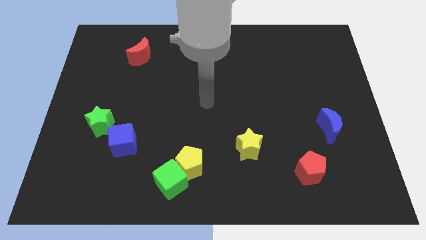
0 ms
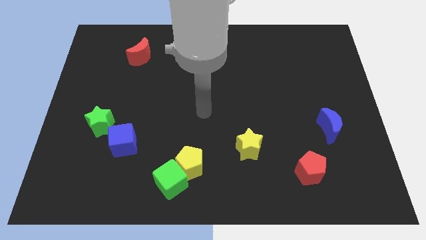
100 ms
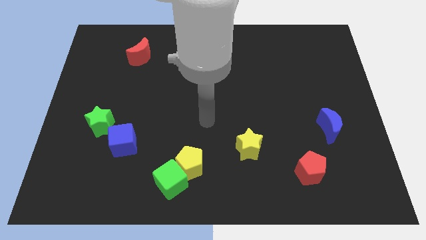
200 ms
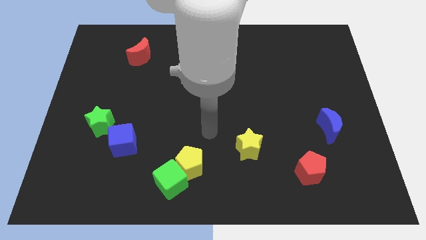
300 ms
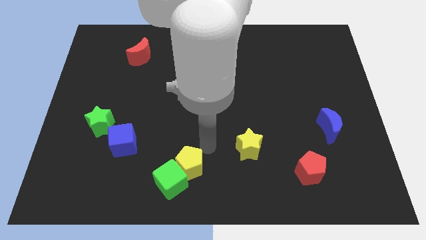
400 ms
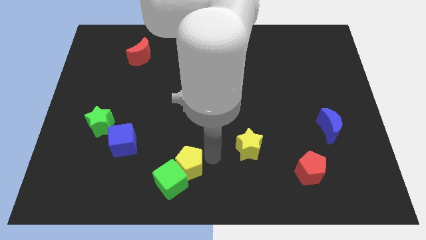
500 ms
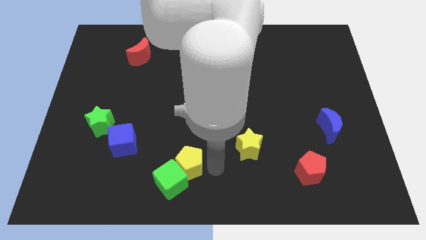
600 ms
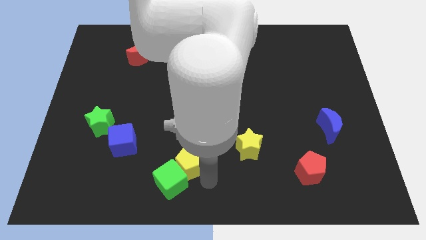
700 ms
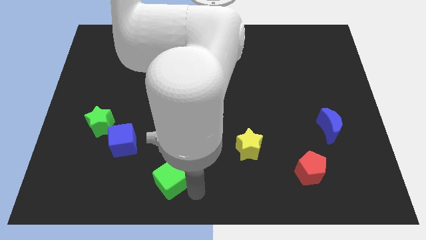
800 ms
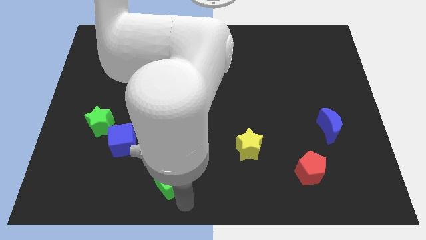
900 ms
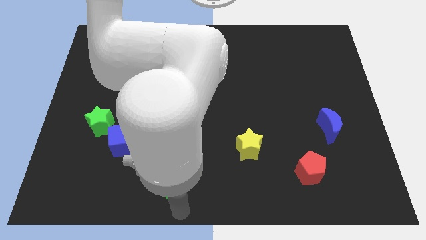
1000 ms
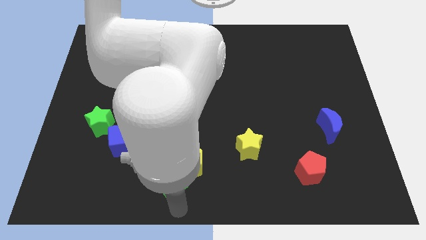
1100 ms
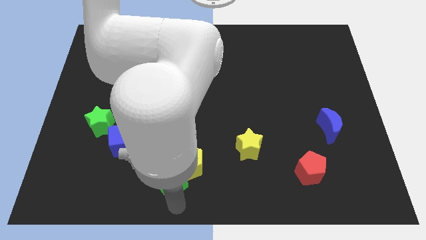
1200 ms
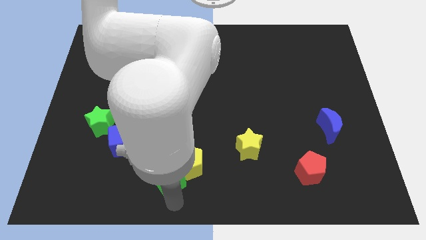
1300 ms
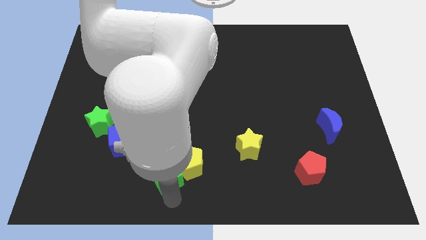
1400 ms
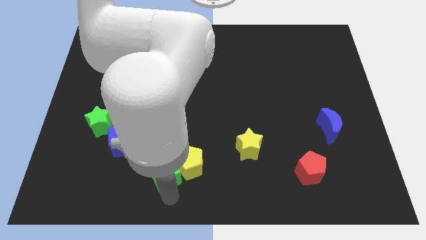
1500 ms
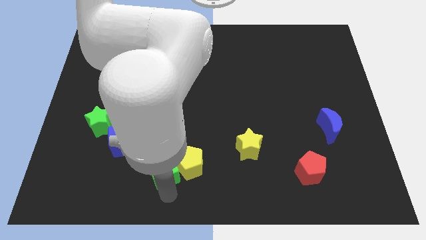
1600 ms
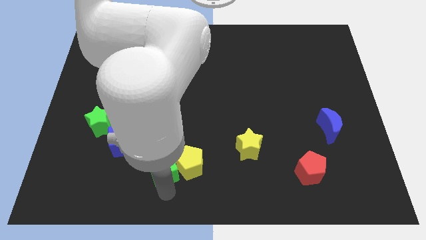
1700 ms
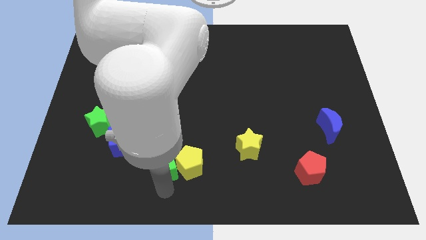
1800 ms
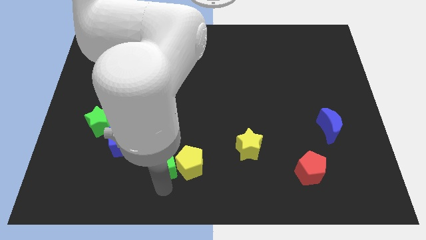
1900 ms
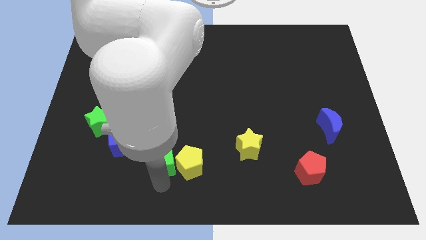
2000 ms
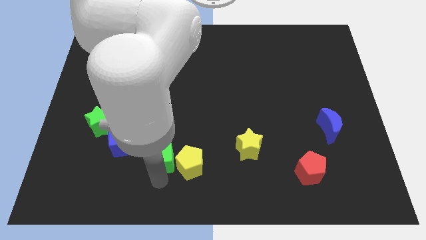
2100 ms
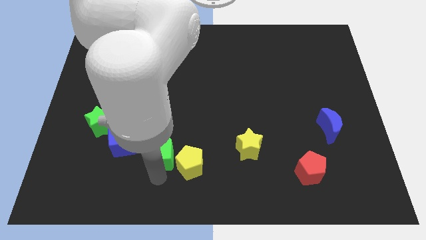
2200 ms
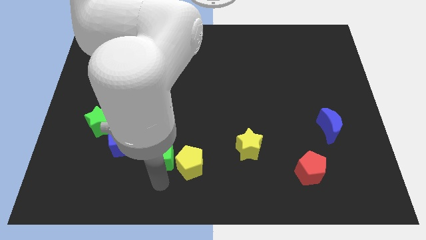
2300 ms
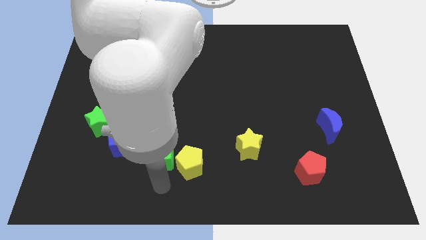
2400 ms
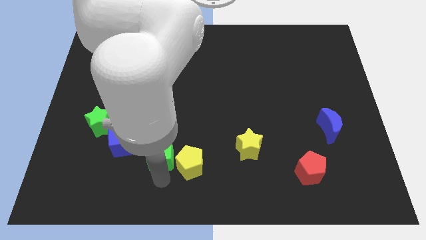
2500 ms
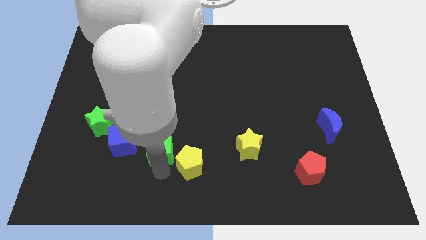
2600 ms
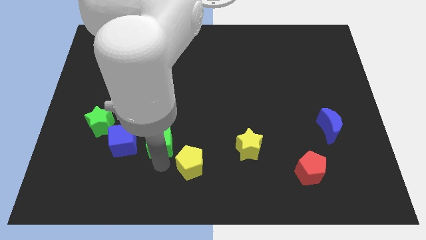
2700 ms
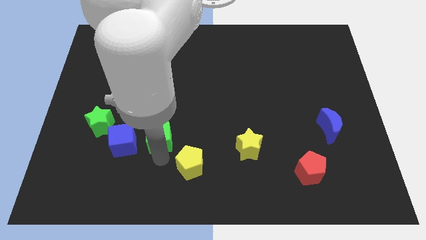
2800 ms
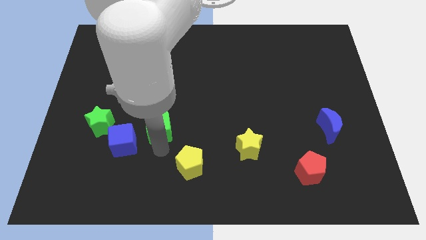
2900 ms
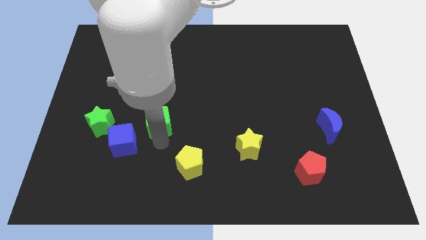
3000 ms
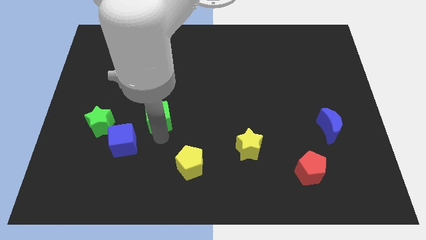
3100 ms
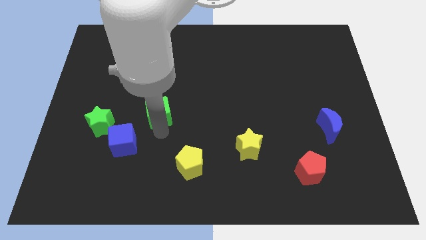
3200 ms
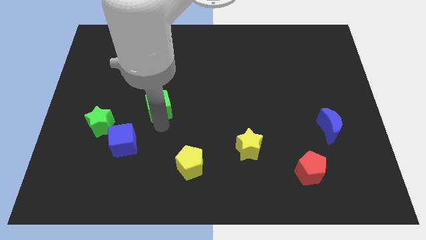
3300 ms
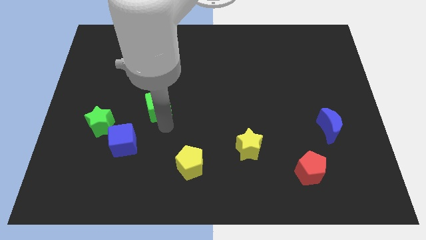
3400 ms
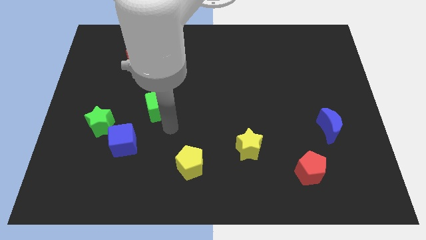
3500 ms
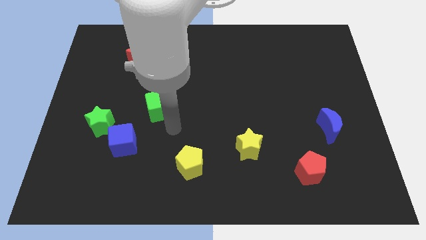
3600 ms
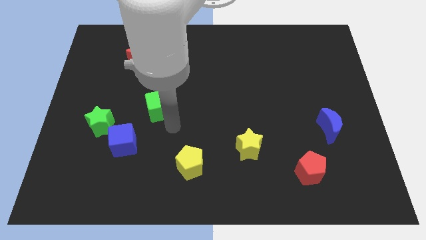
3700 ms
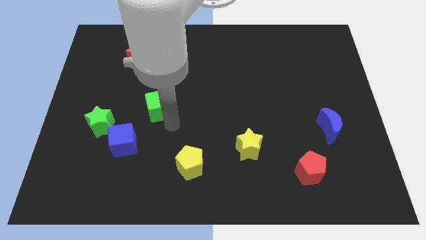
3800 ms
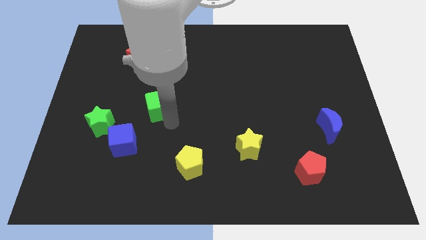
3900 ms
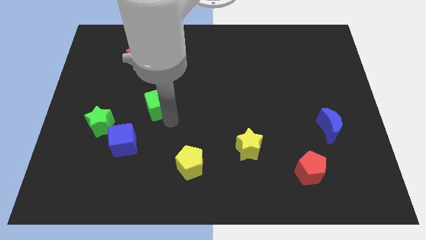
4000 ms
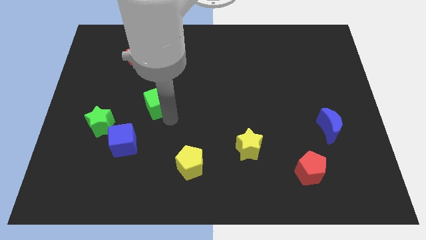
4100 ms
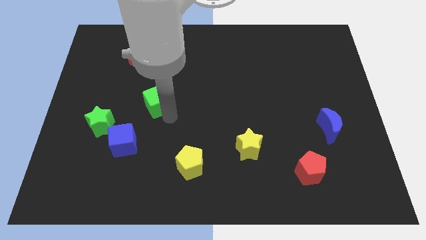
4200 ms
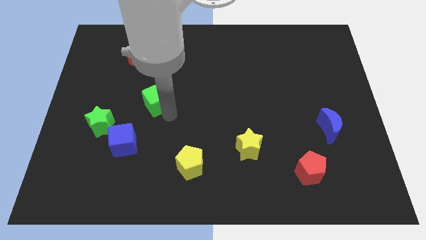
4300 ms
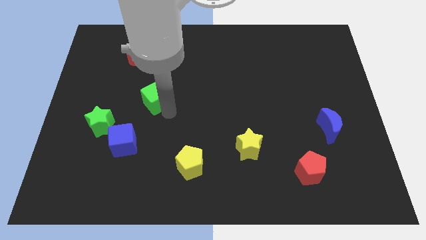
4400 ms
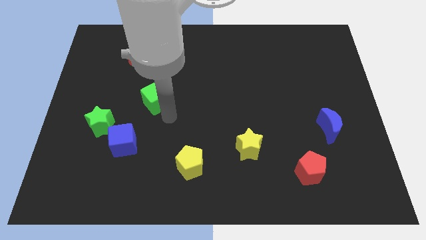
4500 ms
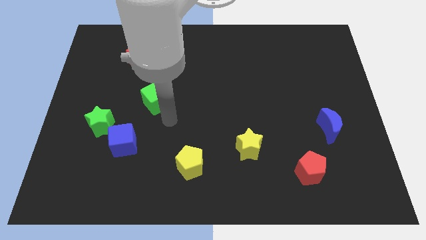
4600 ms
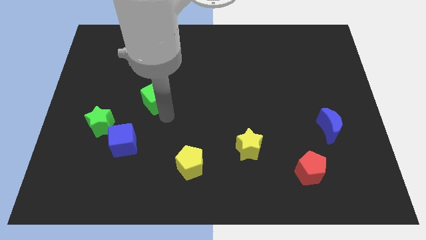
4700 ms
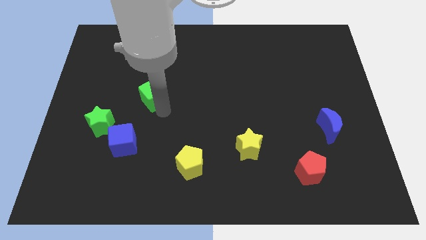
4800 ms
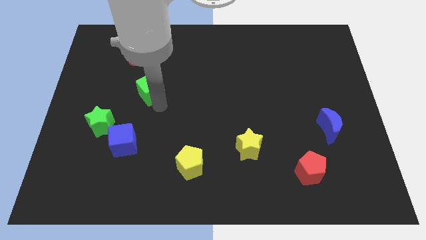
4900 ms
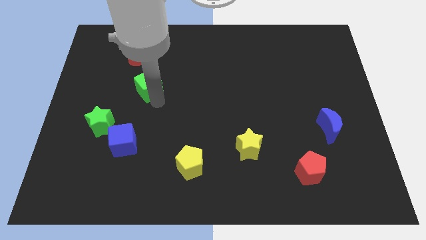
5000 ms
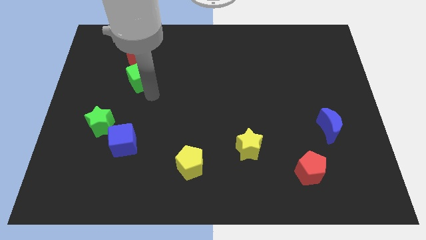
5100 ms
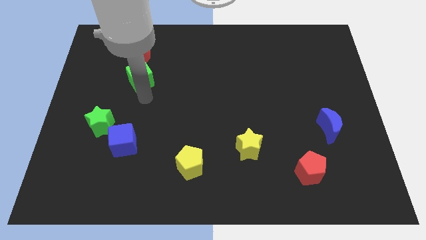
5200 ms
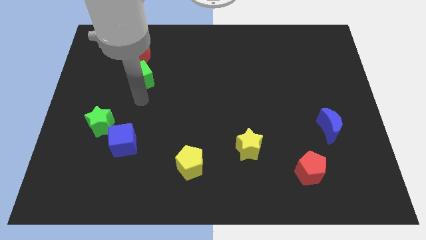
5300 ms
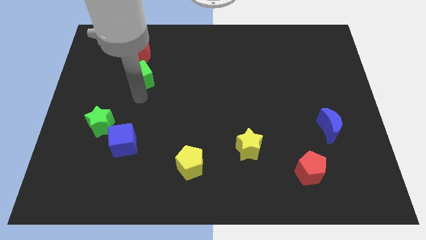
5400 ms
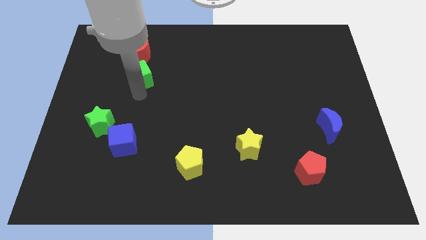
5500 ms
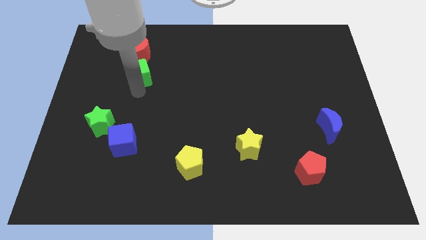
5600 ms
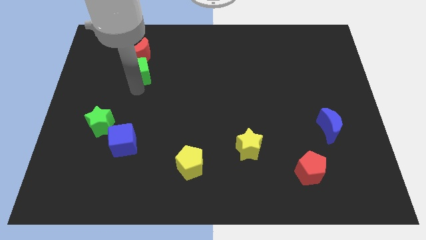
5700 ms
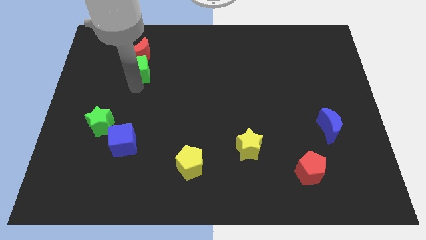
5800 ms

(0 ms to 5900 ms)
slide the green cube next to the red moon

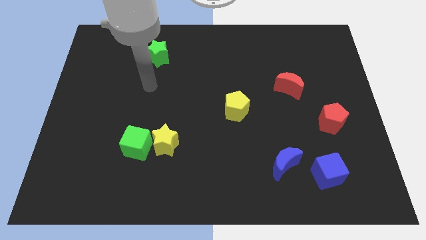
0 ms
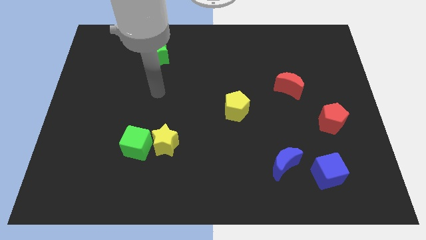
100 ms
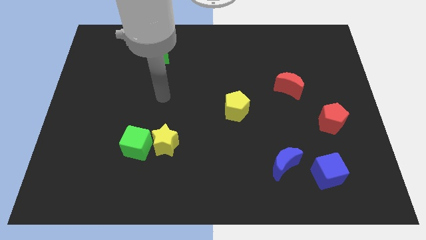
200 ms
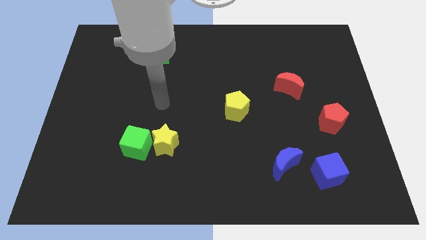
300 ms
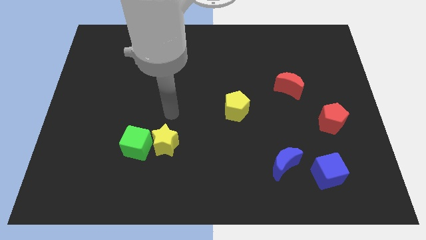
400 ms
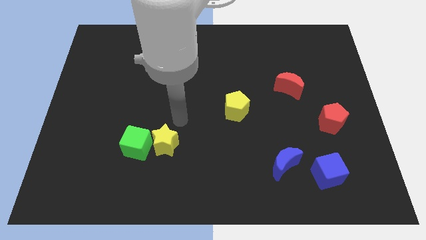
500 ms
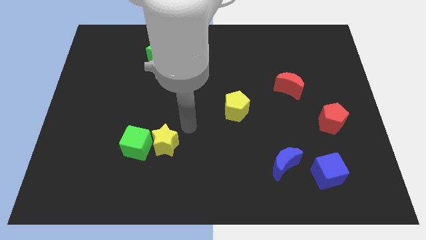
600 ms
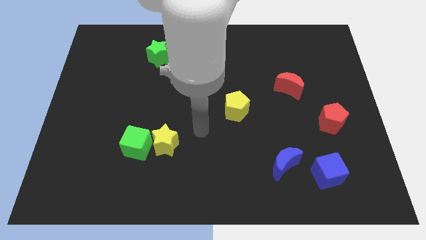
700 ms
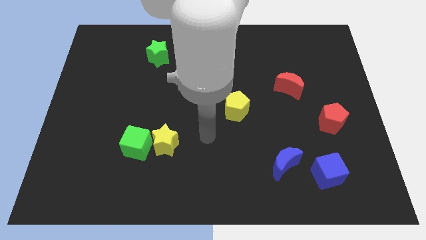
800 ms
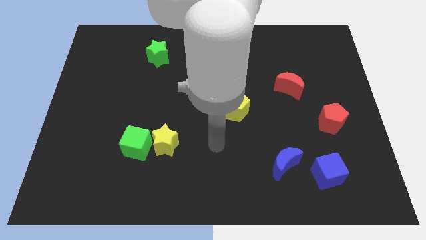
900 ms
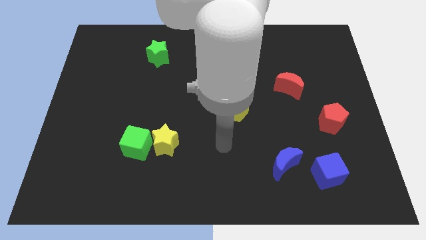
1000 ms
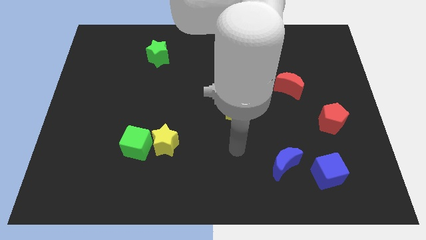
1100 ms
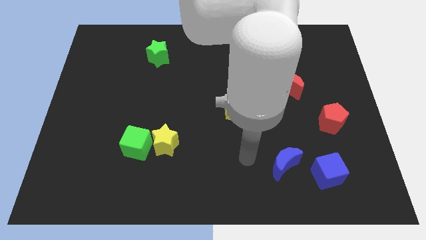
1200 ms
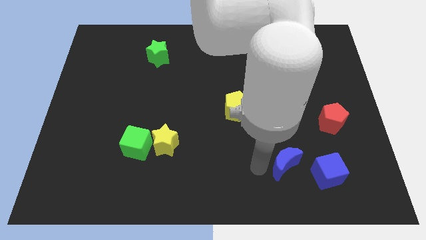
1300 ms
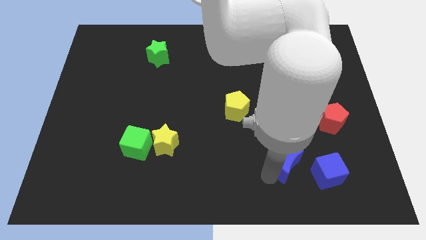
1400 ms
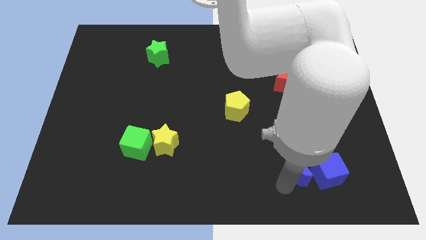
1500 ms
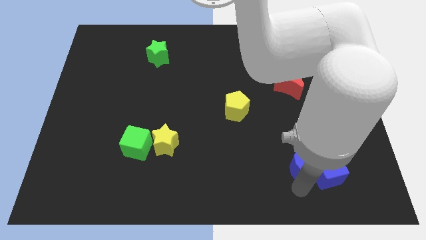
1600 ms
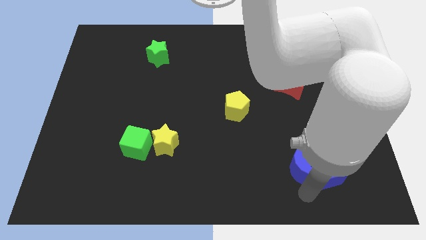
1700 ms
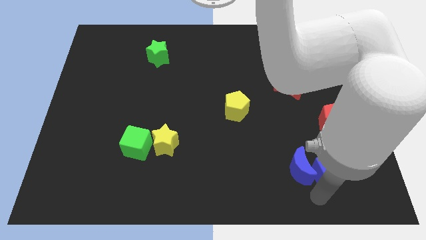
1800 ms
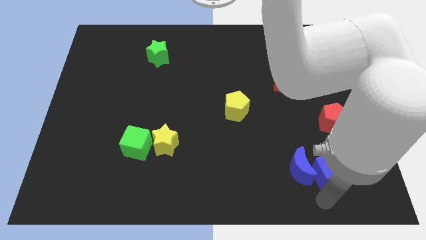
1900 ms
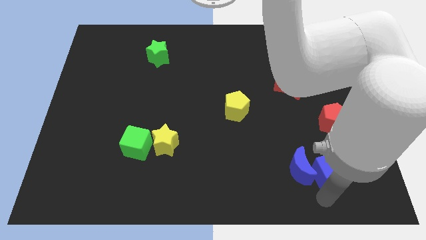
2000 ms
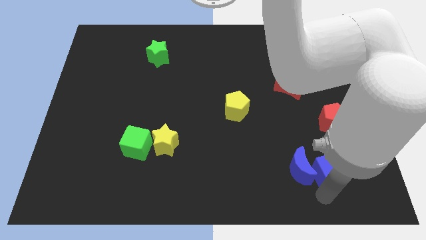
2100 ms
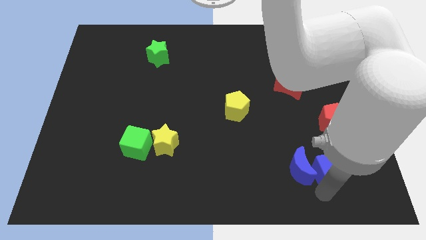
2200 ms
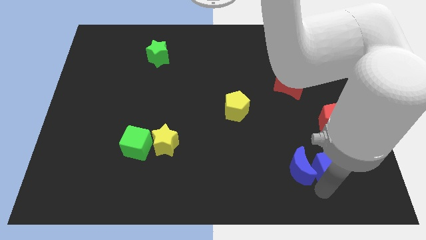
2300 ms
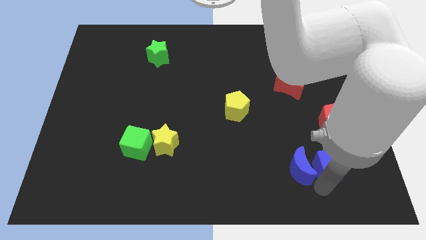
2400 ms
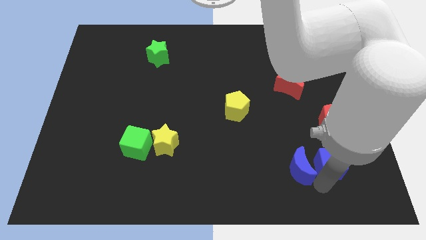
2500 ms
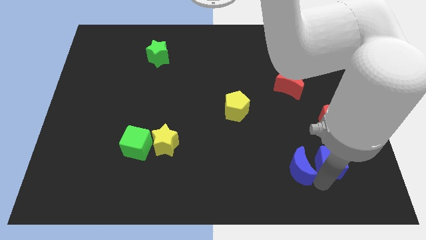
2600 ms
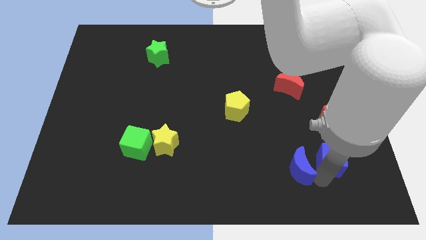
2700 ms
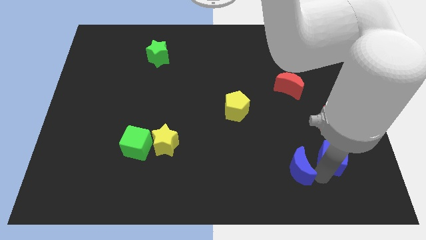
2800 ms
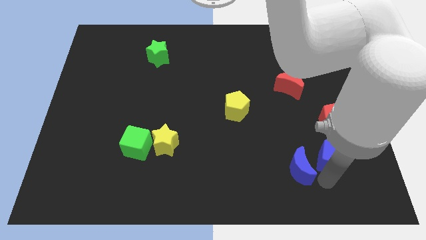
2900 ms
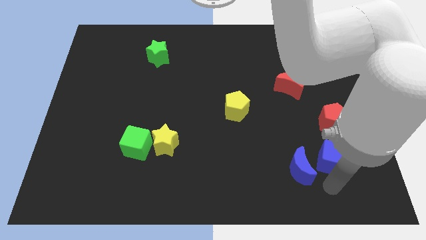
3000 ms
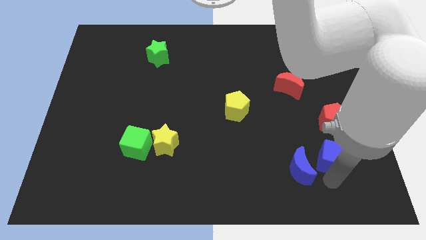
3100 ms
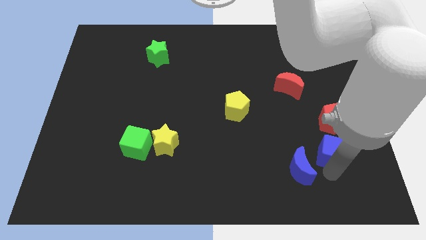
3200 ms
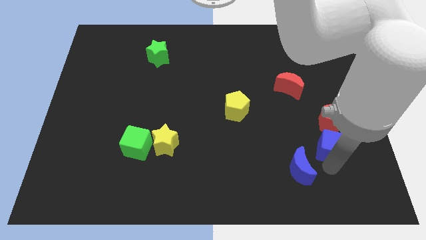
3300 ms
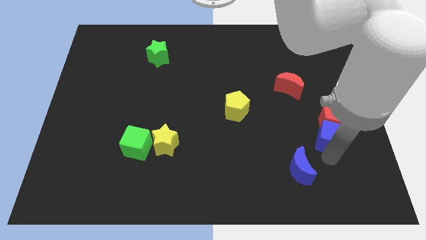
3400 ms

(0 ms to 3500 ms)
slide the blue cube to the red pentagon
